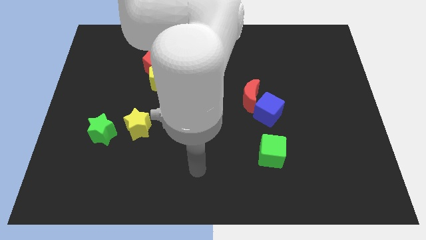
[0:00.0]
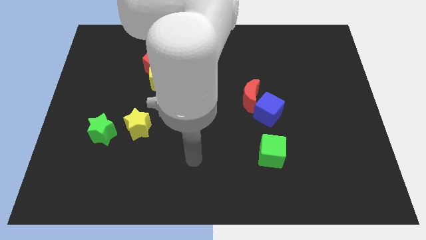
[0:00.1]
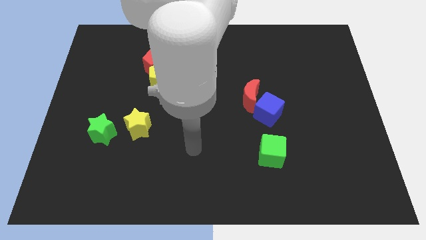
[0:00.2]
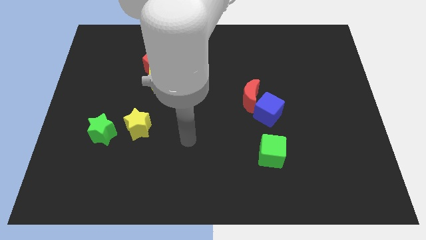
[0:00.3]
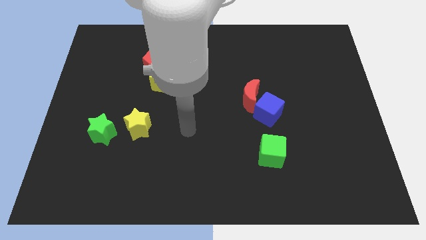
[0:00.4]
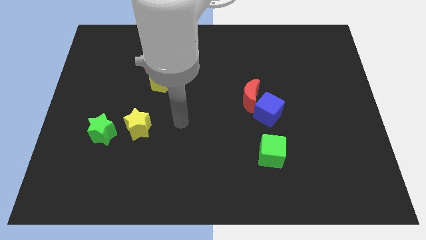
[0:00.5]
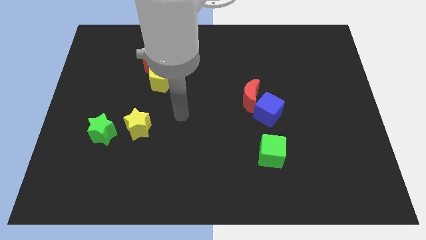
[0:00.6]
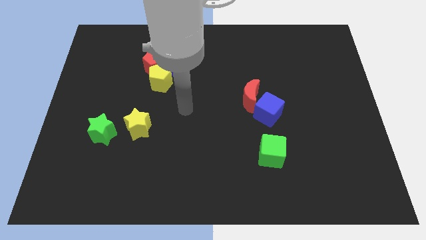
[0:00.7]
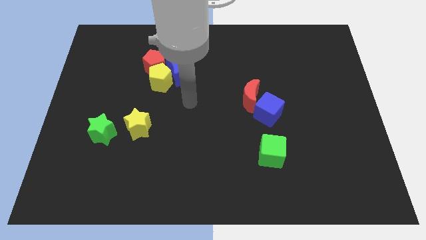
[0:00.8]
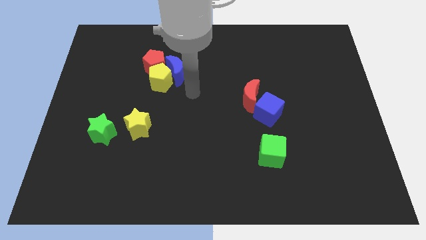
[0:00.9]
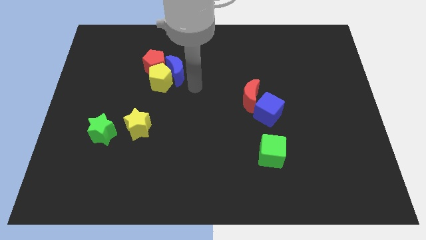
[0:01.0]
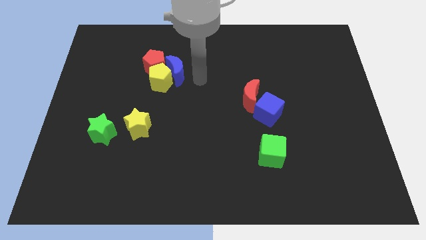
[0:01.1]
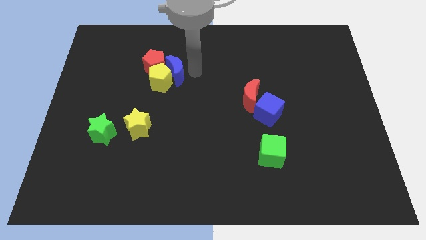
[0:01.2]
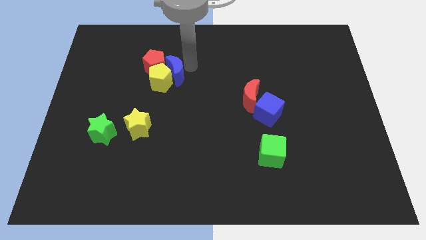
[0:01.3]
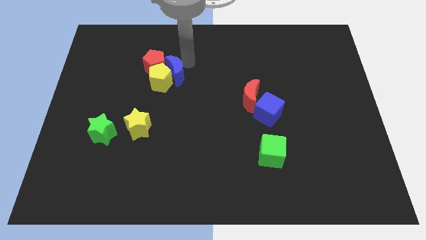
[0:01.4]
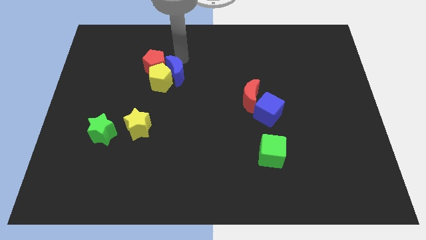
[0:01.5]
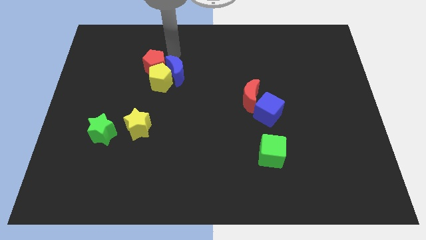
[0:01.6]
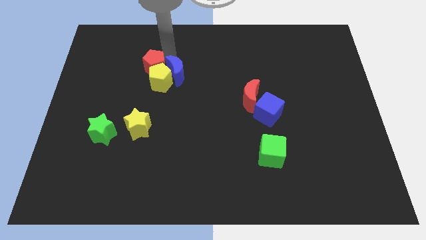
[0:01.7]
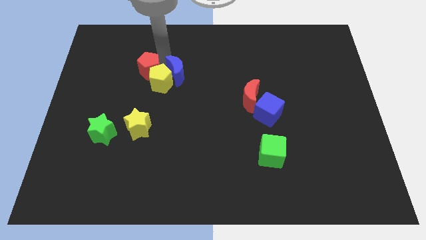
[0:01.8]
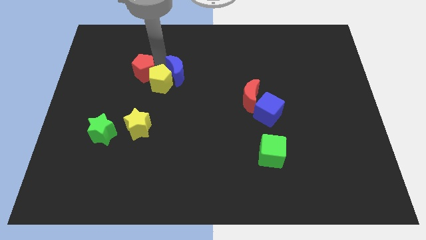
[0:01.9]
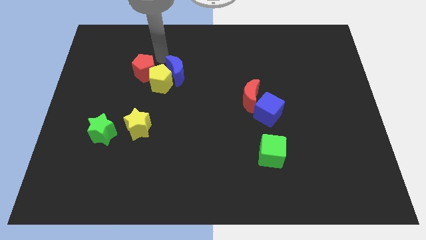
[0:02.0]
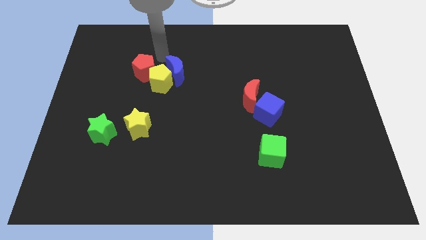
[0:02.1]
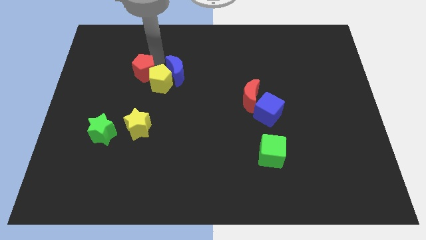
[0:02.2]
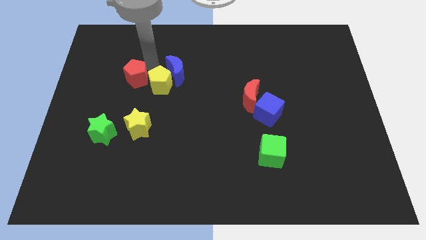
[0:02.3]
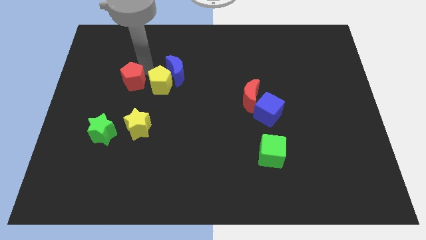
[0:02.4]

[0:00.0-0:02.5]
slide the red pentagon a little diagonally downwards and left

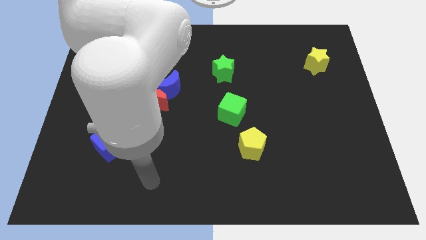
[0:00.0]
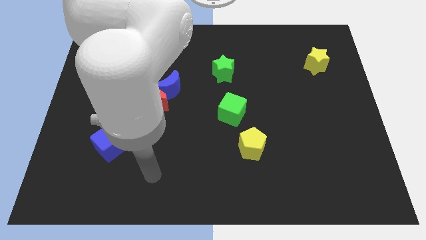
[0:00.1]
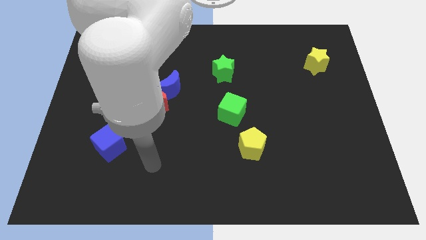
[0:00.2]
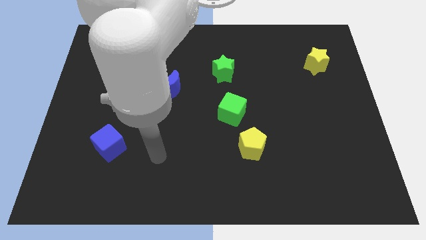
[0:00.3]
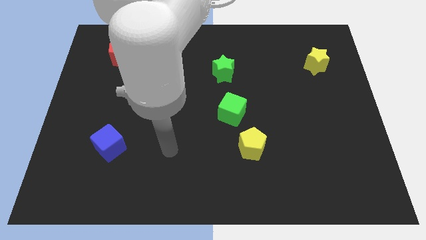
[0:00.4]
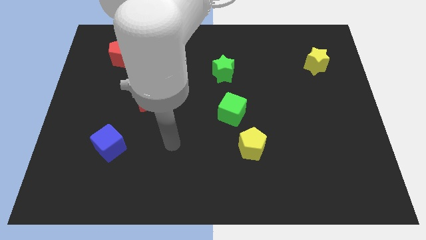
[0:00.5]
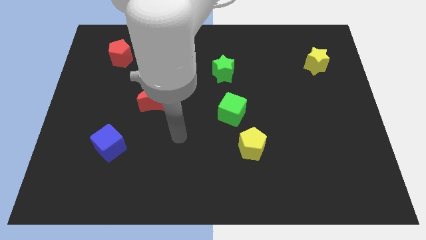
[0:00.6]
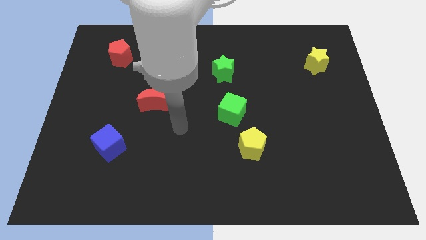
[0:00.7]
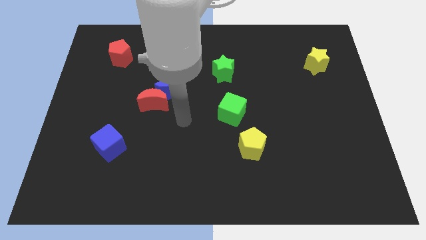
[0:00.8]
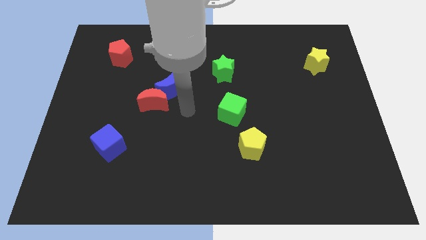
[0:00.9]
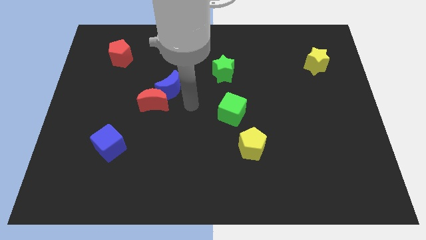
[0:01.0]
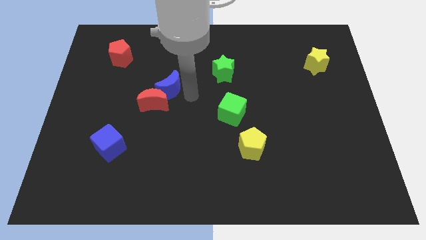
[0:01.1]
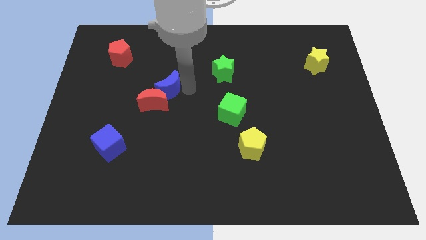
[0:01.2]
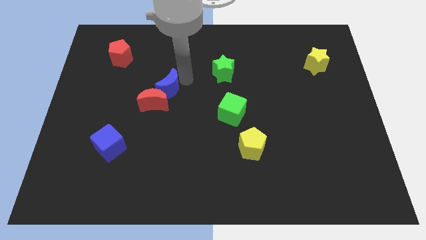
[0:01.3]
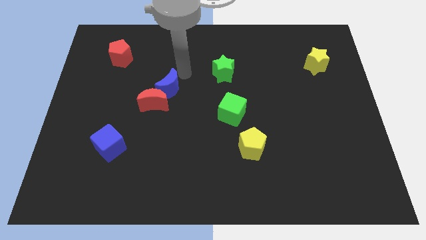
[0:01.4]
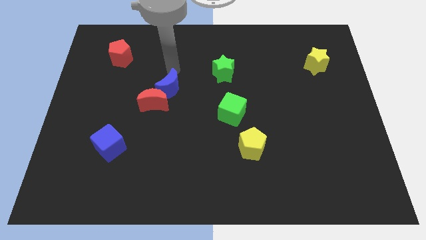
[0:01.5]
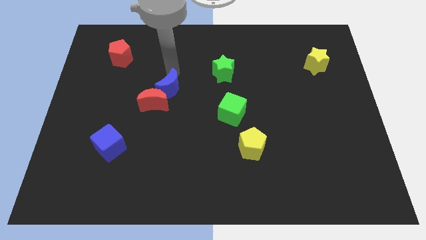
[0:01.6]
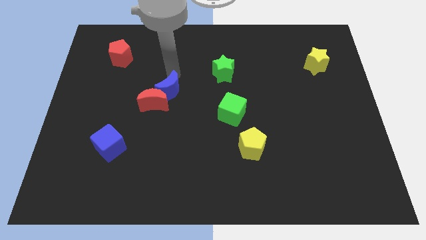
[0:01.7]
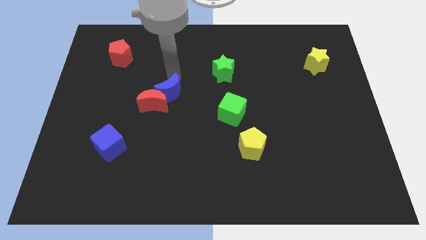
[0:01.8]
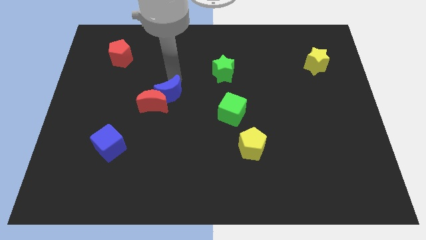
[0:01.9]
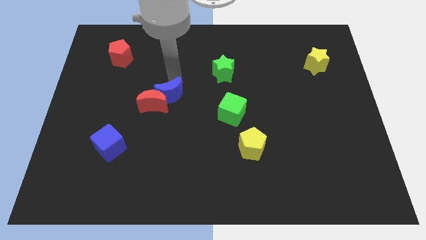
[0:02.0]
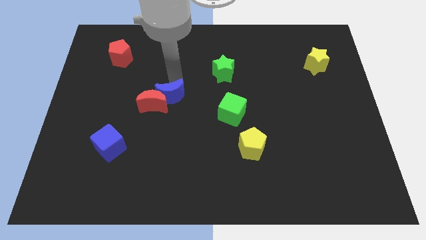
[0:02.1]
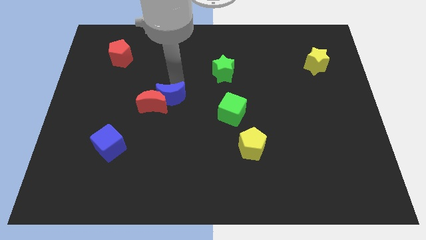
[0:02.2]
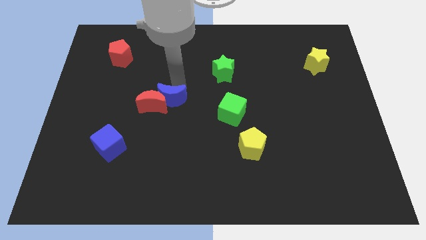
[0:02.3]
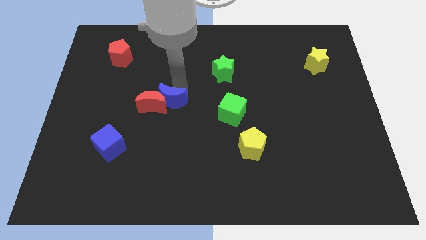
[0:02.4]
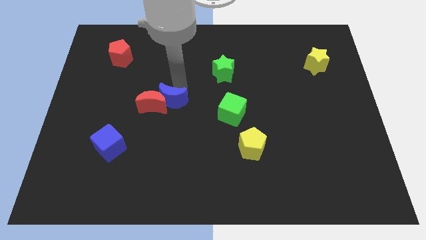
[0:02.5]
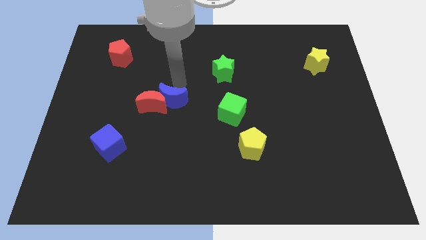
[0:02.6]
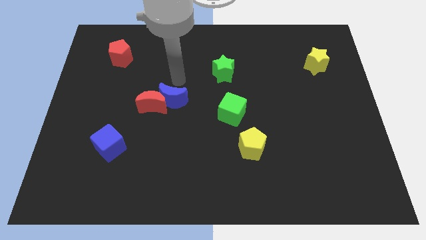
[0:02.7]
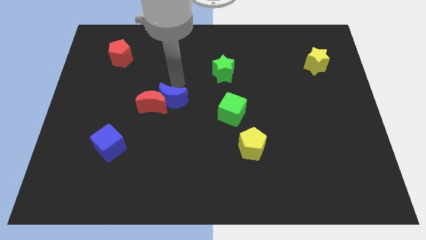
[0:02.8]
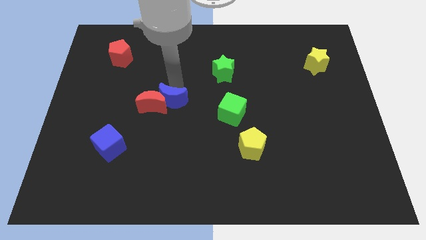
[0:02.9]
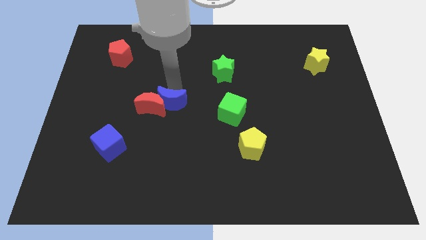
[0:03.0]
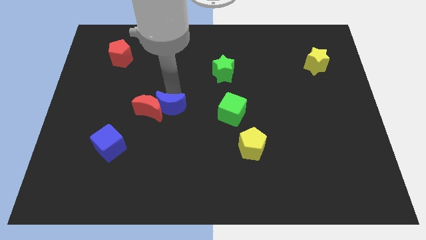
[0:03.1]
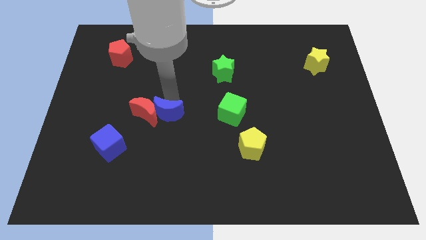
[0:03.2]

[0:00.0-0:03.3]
slightly move the blue moon down

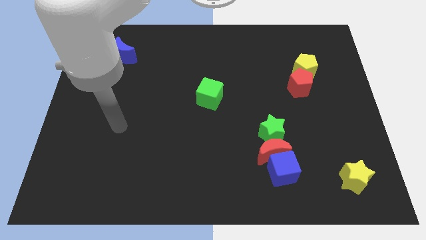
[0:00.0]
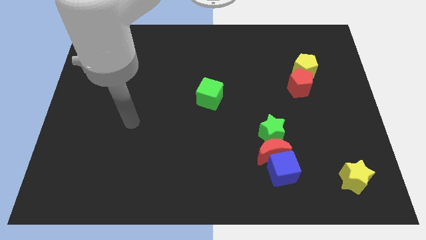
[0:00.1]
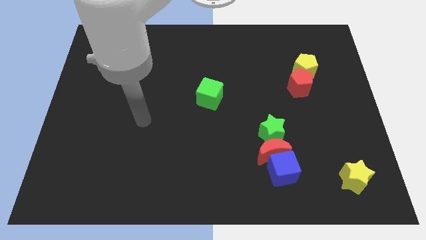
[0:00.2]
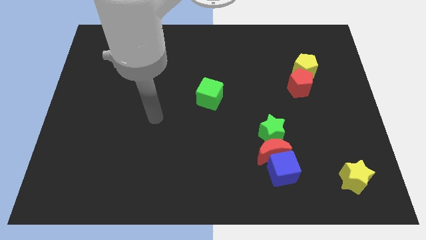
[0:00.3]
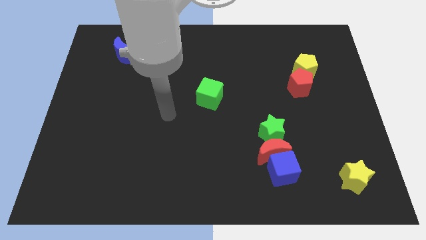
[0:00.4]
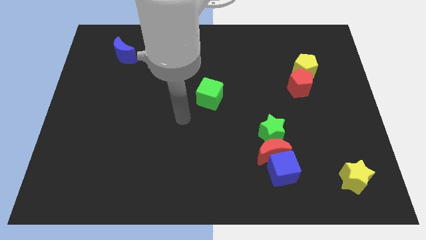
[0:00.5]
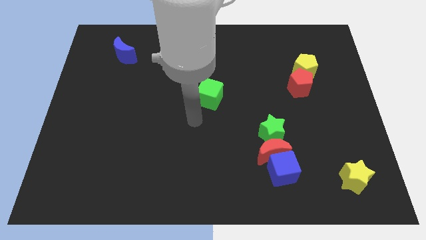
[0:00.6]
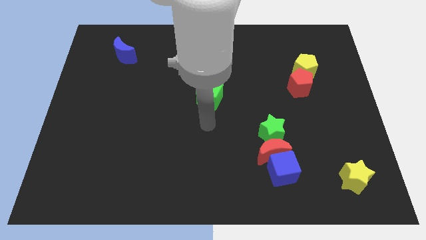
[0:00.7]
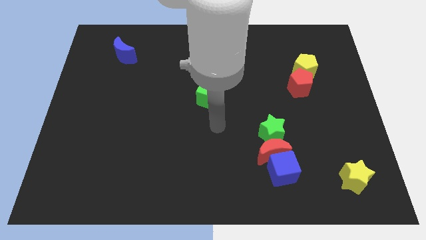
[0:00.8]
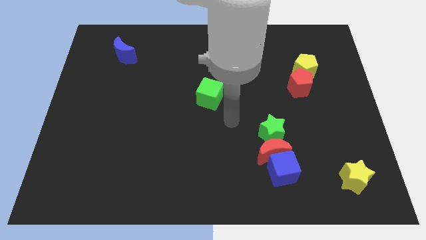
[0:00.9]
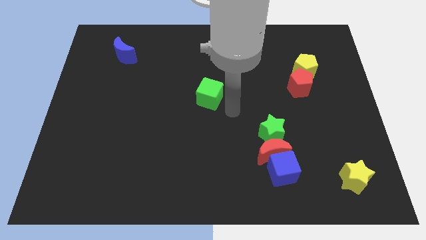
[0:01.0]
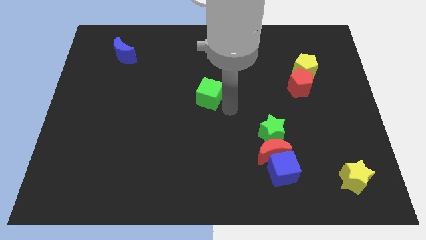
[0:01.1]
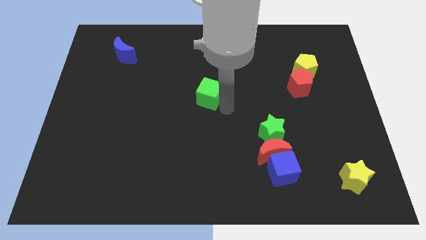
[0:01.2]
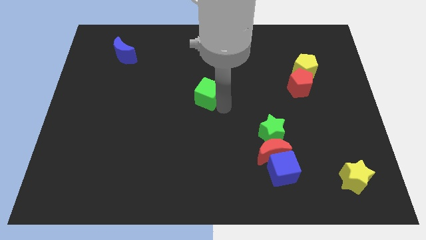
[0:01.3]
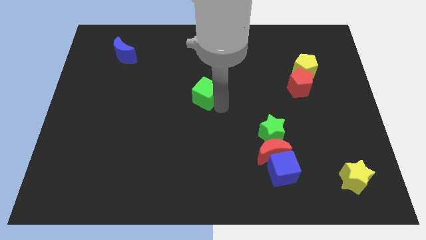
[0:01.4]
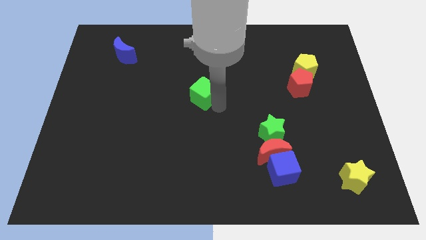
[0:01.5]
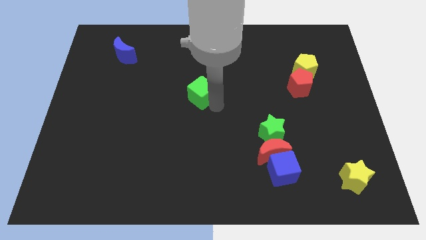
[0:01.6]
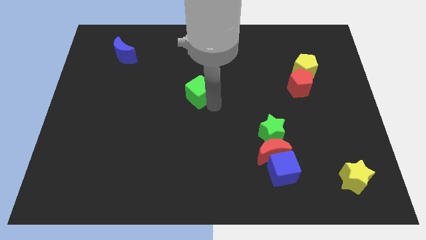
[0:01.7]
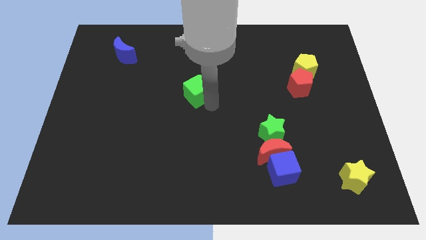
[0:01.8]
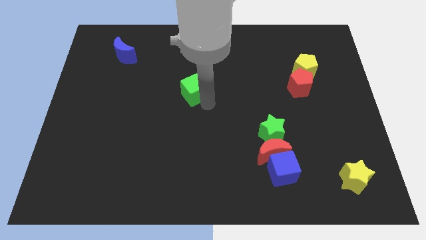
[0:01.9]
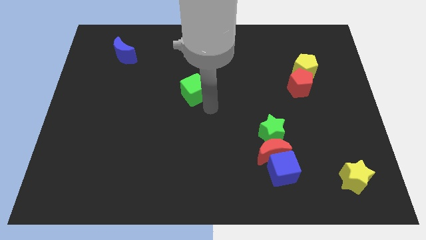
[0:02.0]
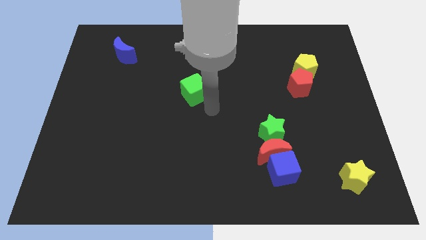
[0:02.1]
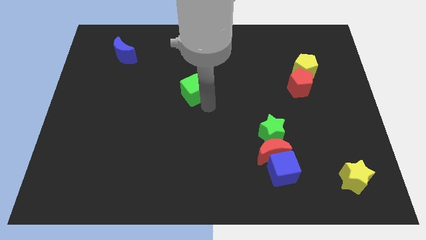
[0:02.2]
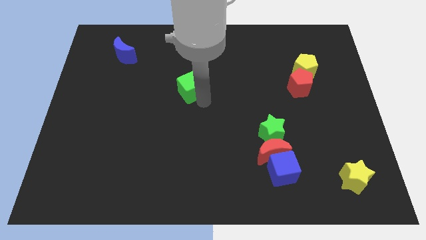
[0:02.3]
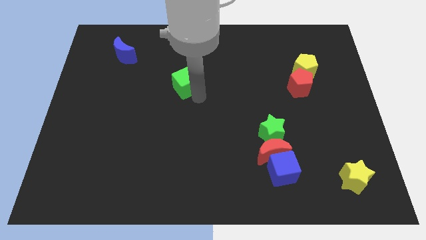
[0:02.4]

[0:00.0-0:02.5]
slide the green cube up and left diagonally slightly
